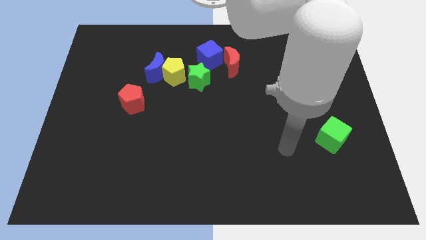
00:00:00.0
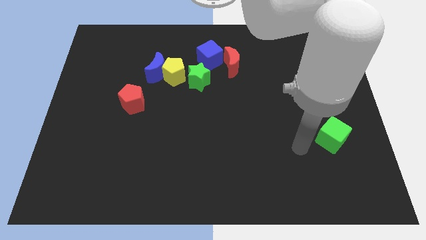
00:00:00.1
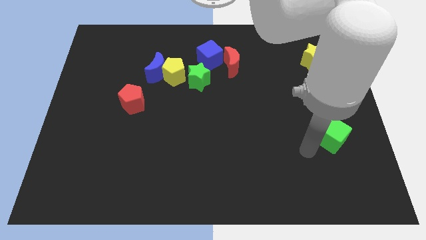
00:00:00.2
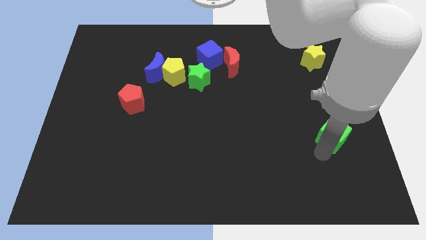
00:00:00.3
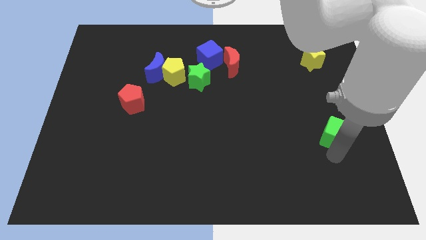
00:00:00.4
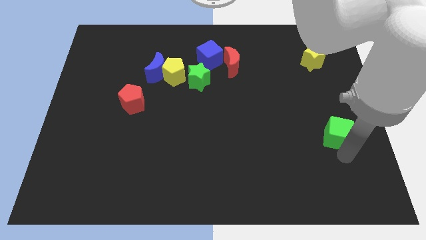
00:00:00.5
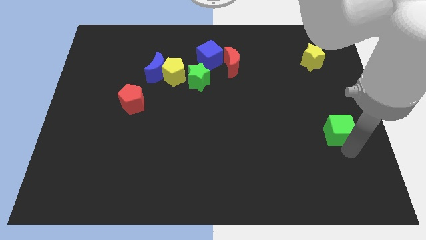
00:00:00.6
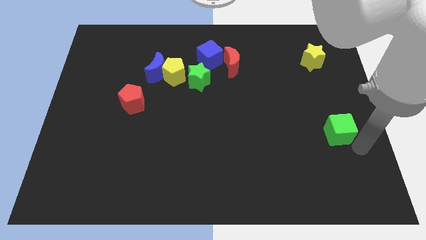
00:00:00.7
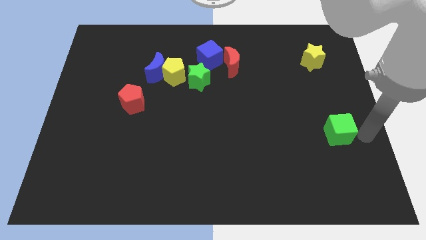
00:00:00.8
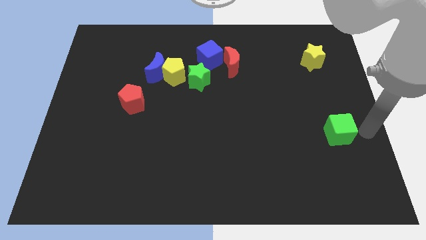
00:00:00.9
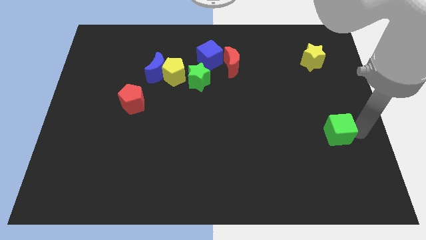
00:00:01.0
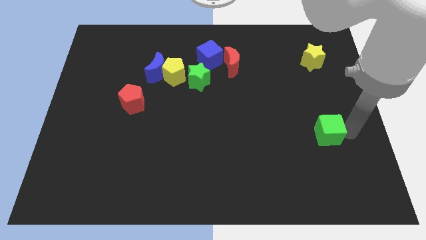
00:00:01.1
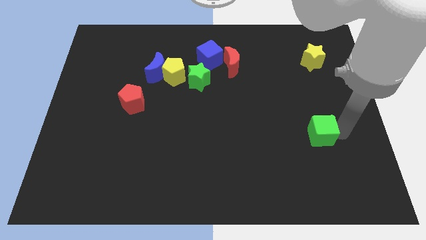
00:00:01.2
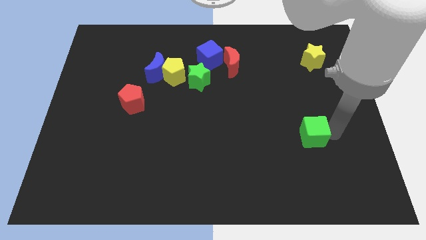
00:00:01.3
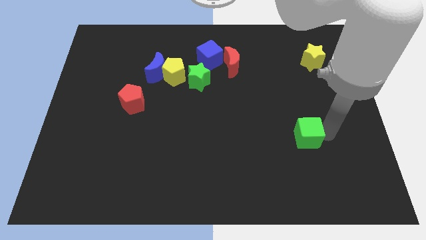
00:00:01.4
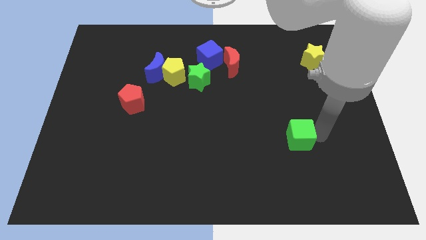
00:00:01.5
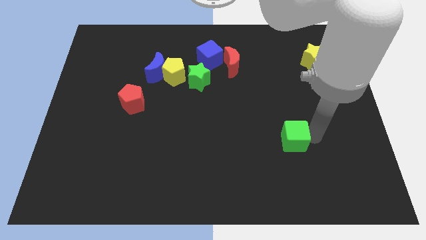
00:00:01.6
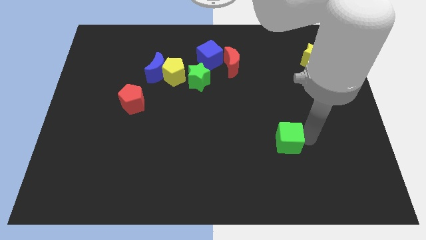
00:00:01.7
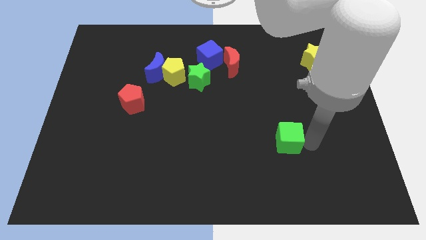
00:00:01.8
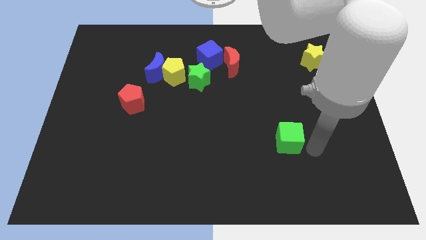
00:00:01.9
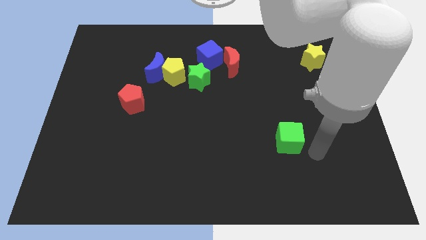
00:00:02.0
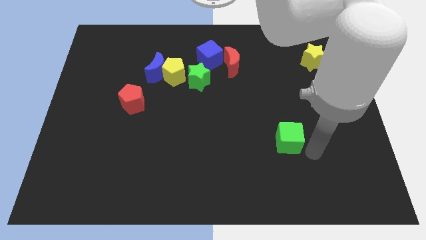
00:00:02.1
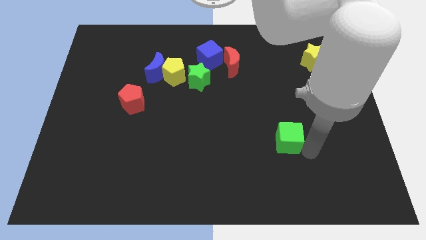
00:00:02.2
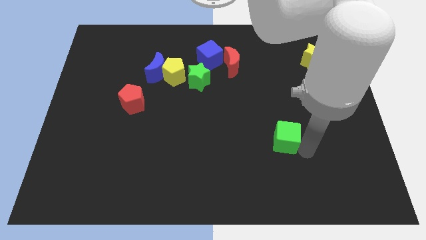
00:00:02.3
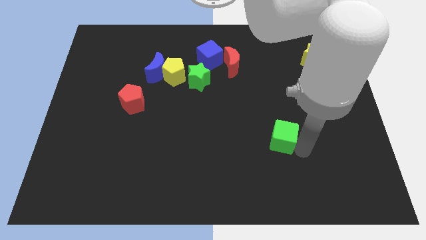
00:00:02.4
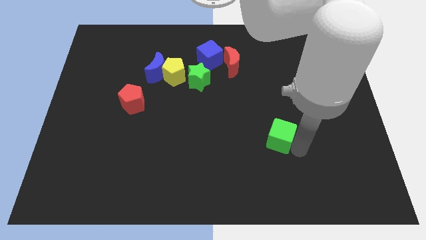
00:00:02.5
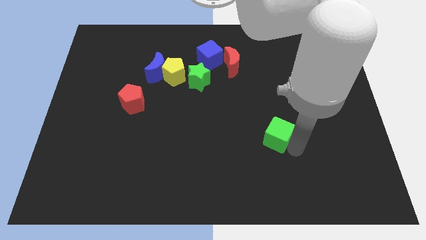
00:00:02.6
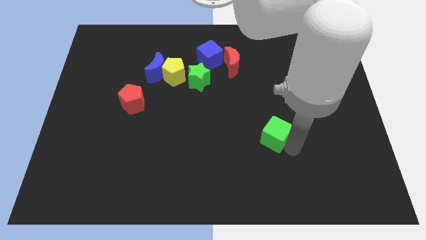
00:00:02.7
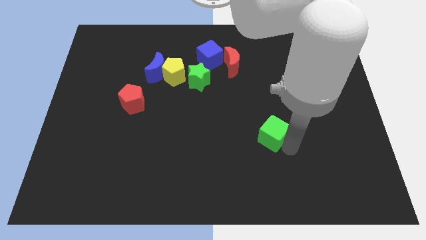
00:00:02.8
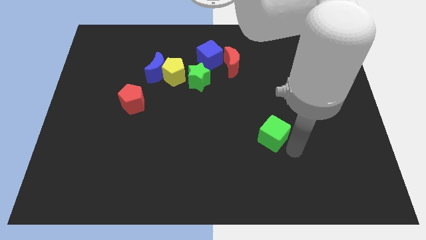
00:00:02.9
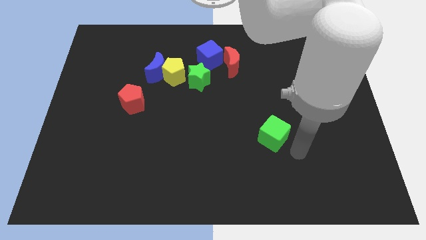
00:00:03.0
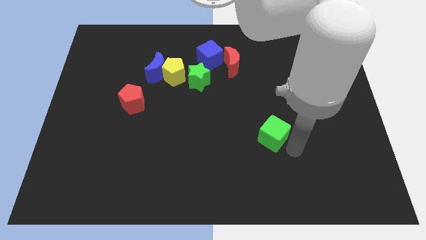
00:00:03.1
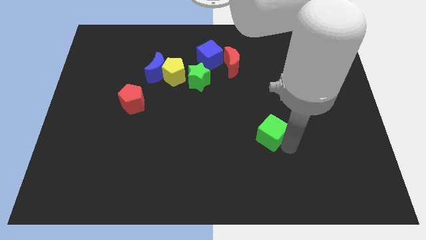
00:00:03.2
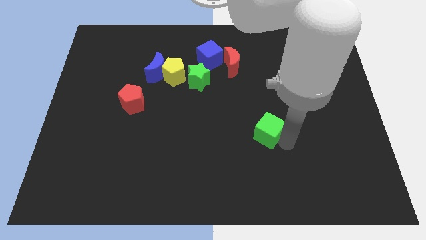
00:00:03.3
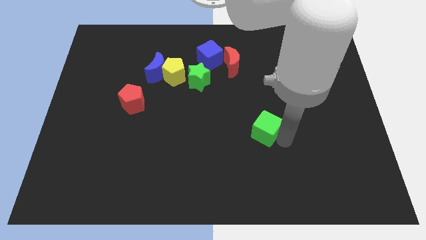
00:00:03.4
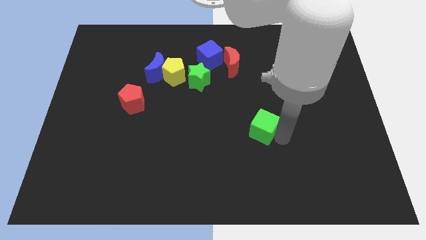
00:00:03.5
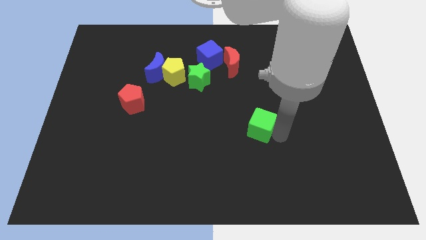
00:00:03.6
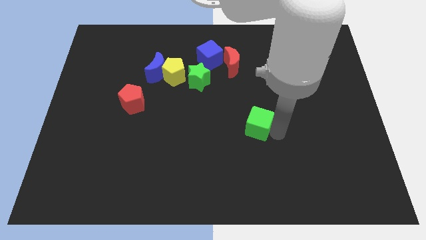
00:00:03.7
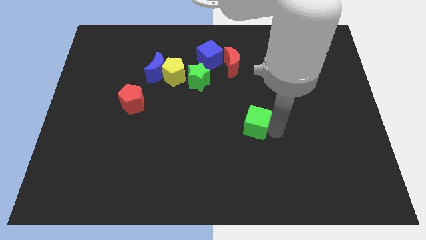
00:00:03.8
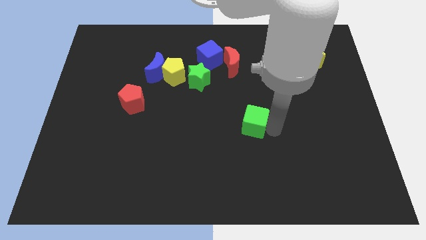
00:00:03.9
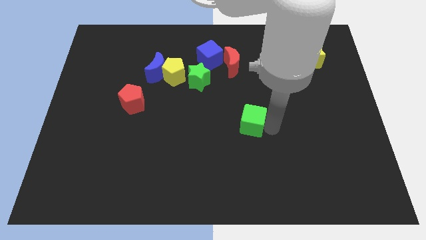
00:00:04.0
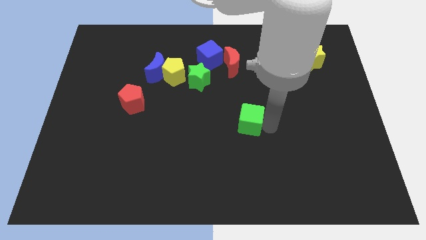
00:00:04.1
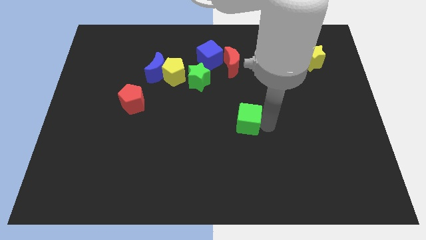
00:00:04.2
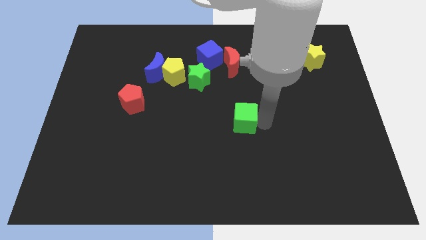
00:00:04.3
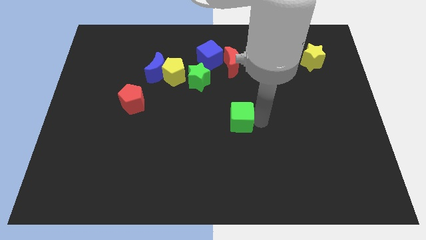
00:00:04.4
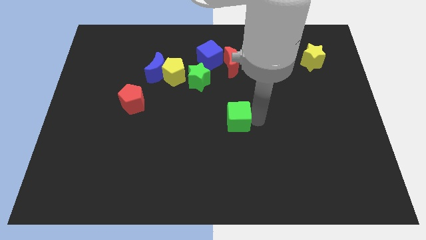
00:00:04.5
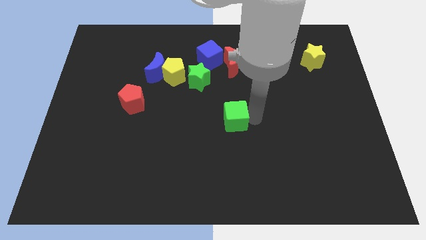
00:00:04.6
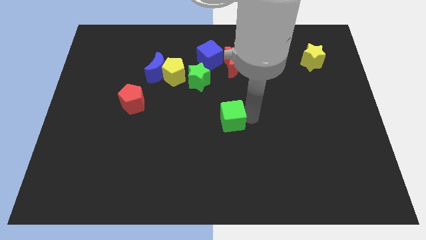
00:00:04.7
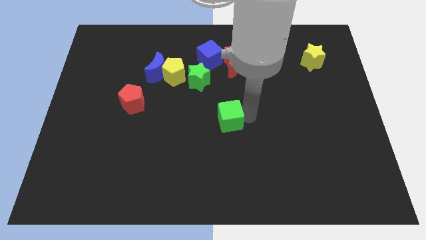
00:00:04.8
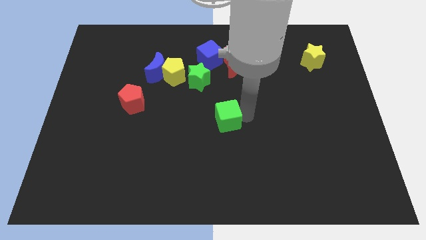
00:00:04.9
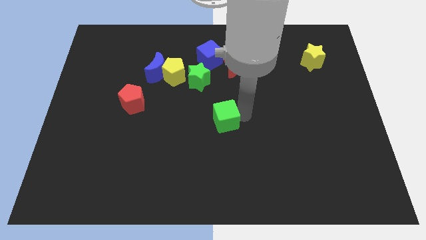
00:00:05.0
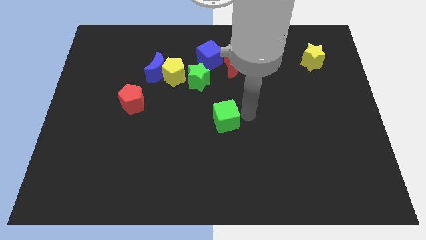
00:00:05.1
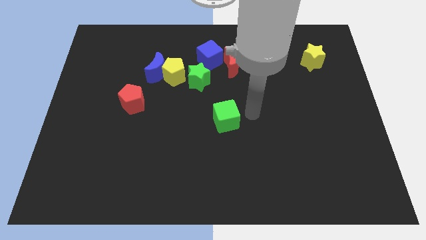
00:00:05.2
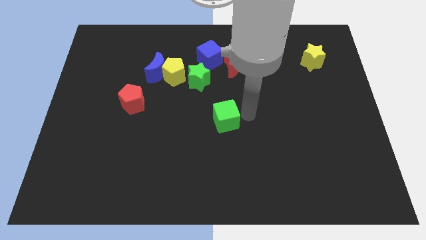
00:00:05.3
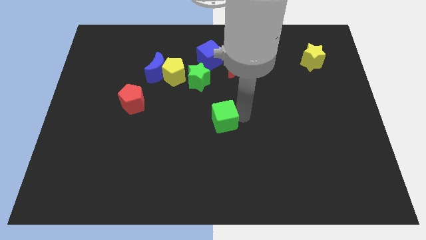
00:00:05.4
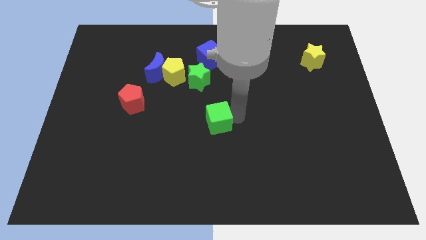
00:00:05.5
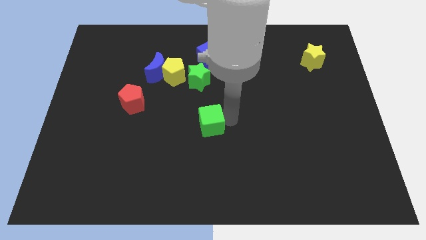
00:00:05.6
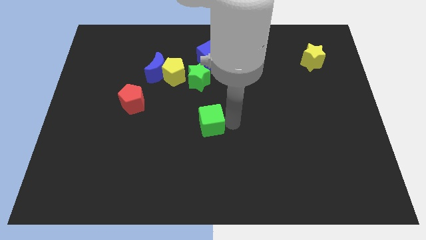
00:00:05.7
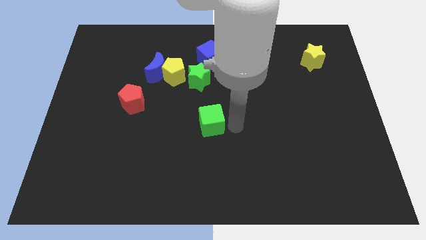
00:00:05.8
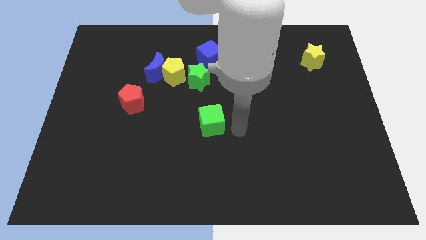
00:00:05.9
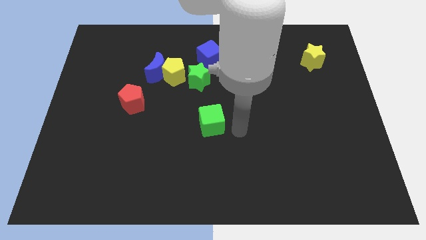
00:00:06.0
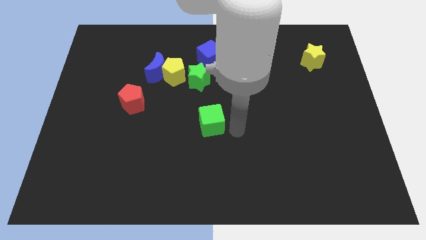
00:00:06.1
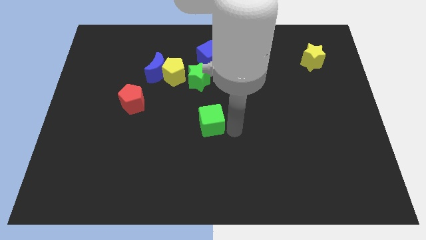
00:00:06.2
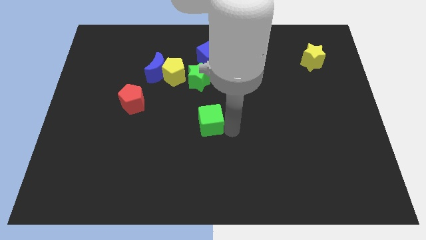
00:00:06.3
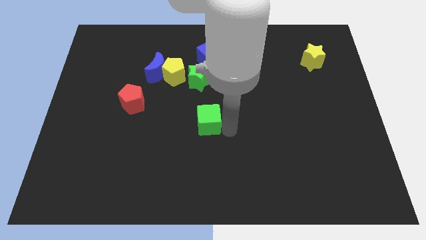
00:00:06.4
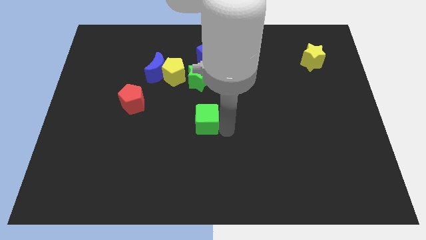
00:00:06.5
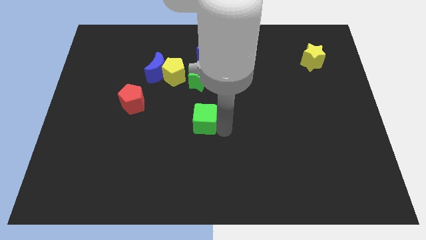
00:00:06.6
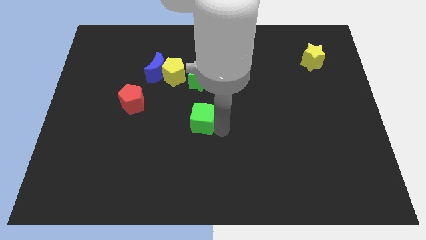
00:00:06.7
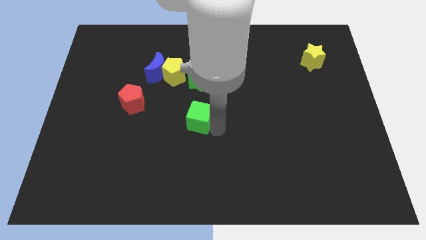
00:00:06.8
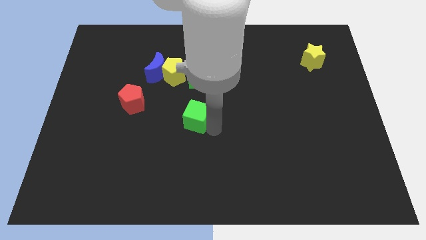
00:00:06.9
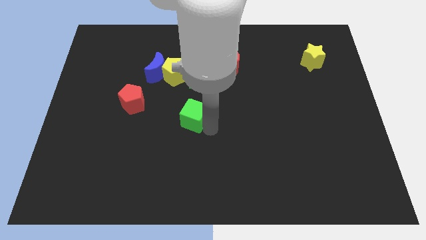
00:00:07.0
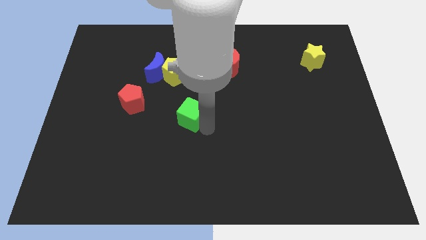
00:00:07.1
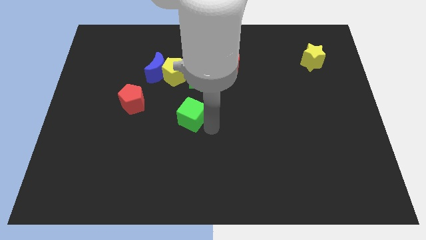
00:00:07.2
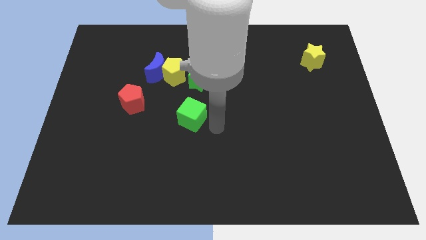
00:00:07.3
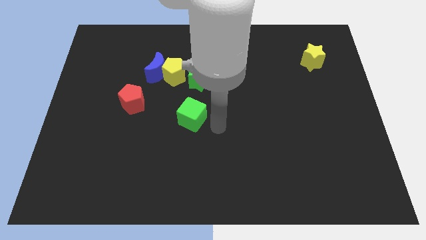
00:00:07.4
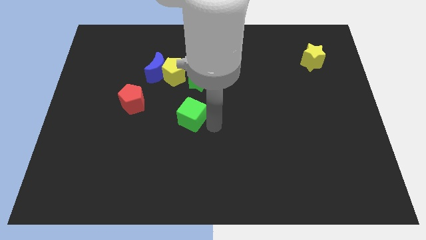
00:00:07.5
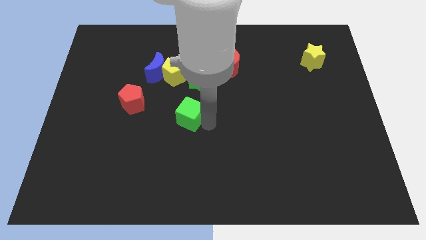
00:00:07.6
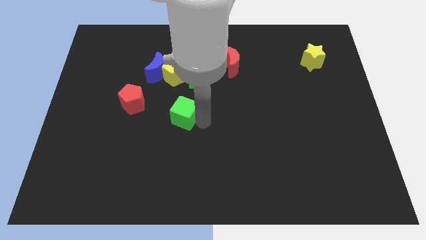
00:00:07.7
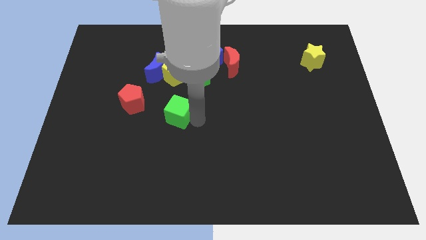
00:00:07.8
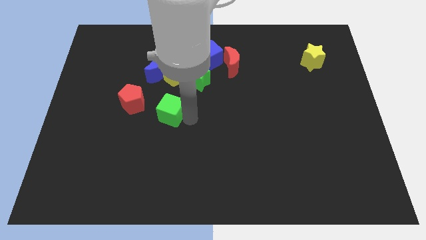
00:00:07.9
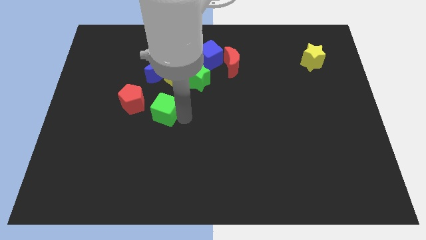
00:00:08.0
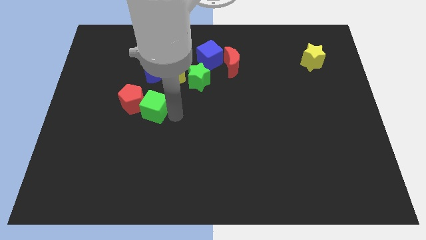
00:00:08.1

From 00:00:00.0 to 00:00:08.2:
push the green cube towards the red pentagon
